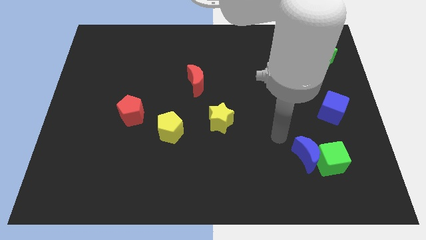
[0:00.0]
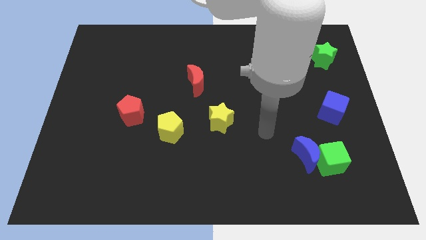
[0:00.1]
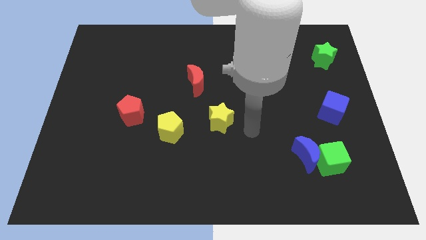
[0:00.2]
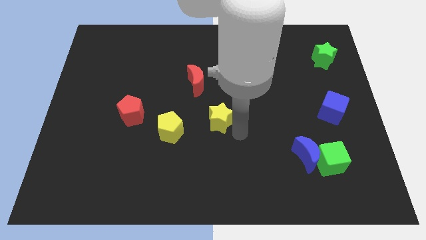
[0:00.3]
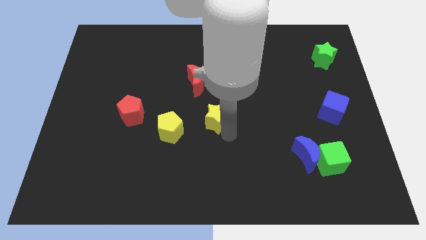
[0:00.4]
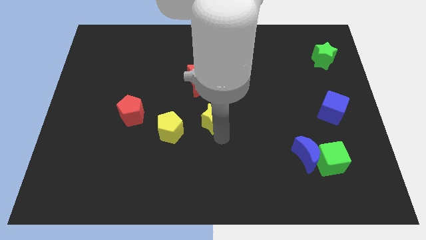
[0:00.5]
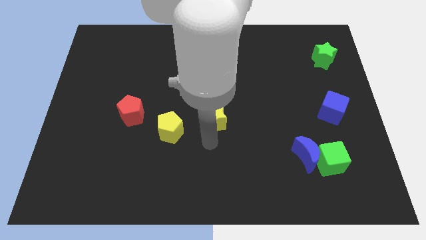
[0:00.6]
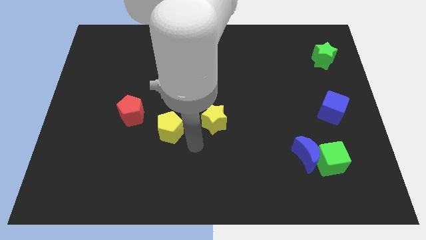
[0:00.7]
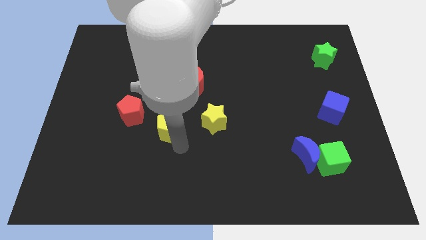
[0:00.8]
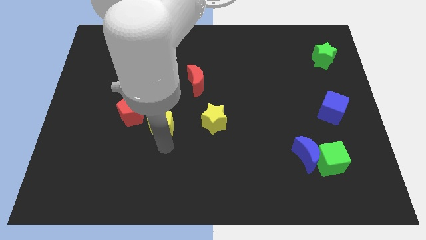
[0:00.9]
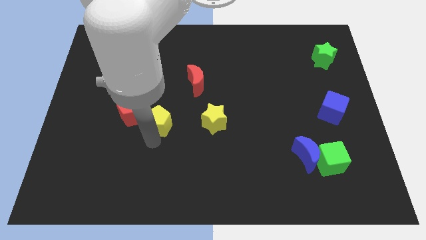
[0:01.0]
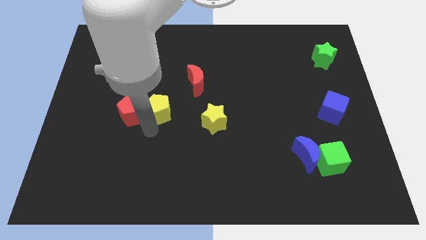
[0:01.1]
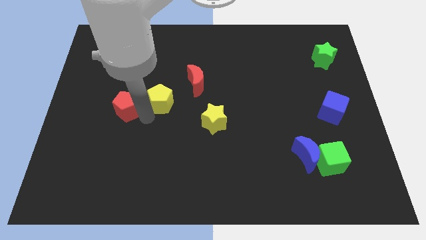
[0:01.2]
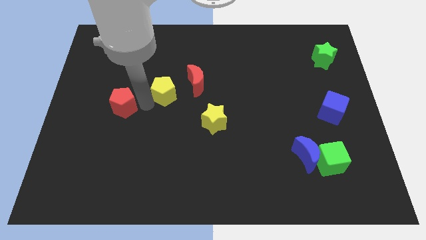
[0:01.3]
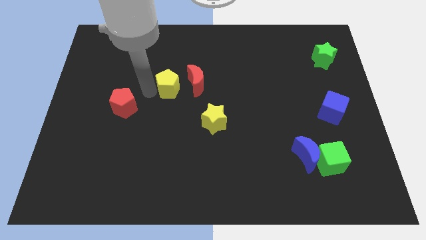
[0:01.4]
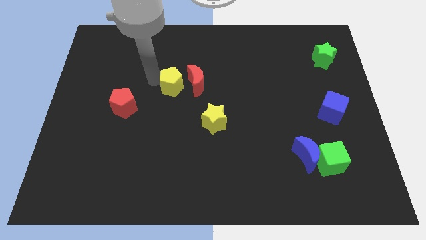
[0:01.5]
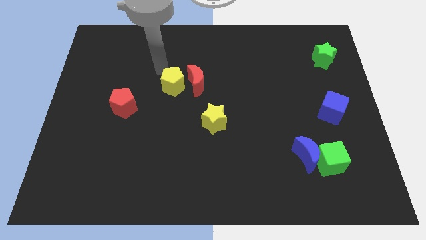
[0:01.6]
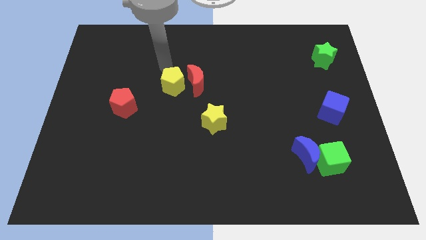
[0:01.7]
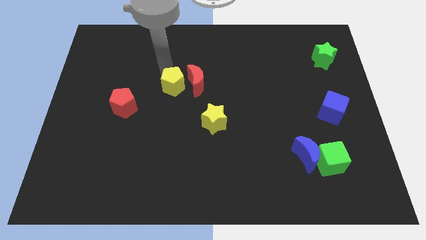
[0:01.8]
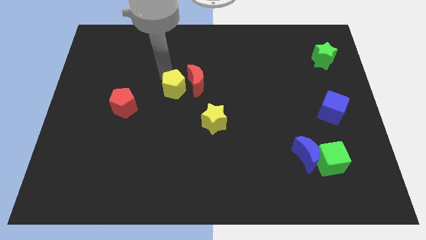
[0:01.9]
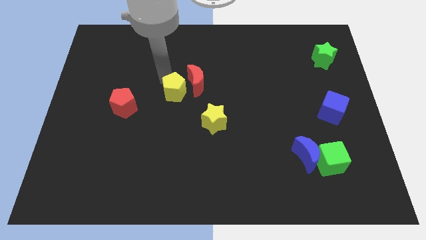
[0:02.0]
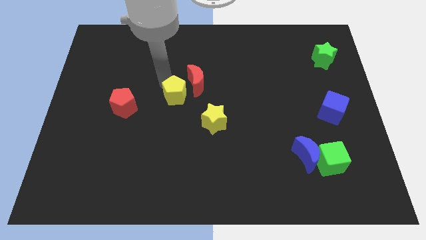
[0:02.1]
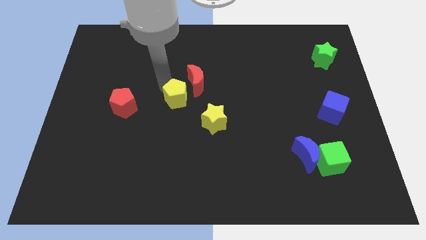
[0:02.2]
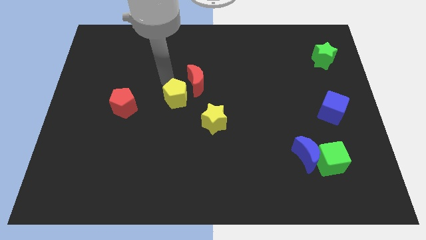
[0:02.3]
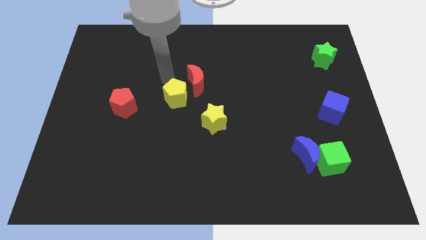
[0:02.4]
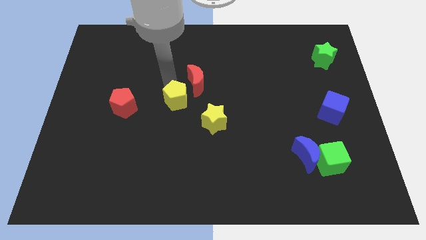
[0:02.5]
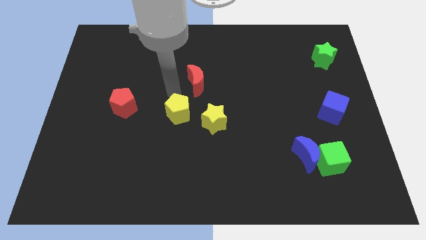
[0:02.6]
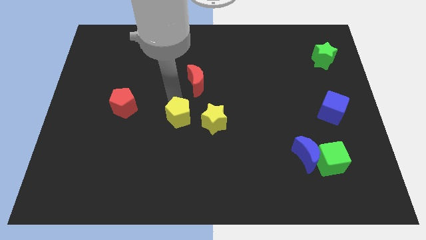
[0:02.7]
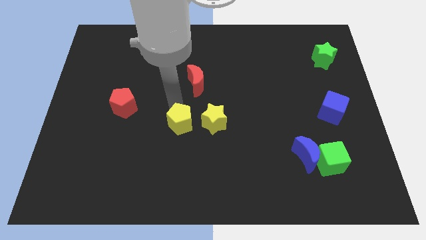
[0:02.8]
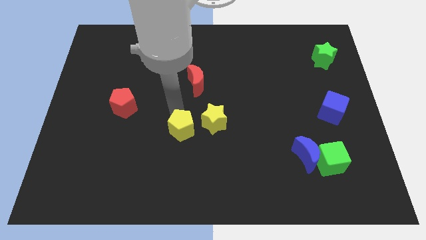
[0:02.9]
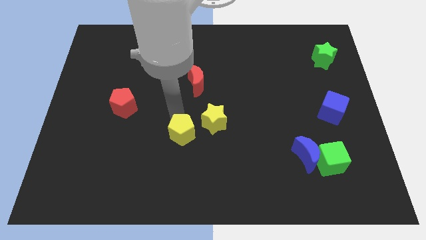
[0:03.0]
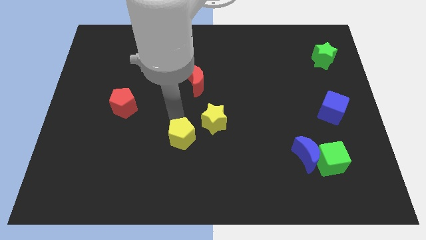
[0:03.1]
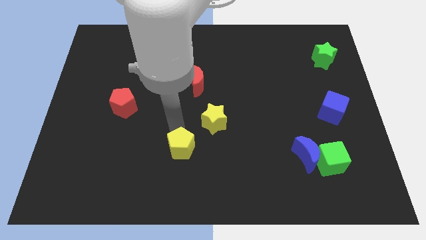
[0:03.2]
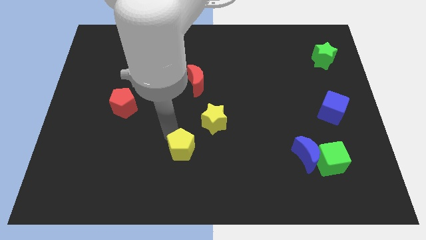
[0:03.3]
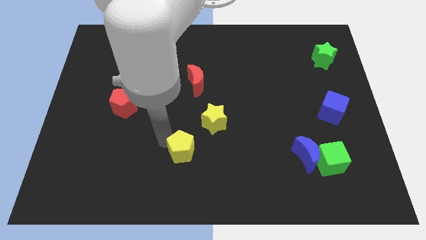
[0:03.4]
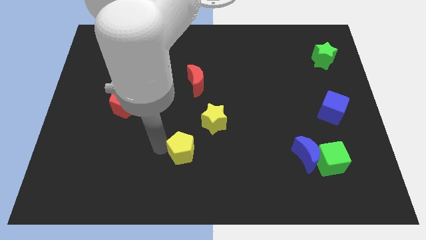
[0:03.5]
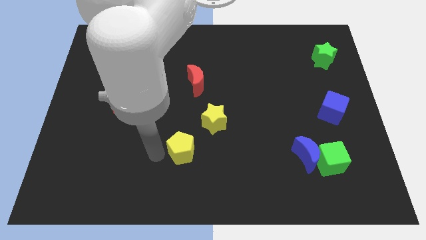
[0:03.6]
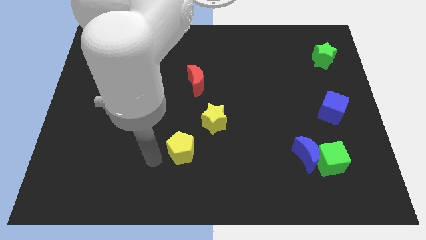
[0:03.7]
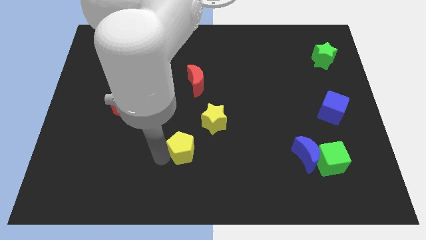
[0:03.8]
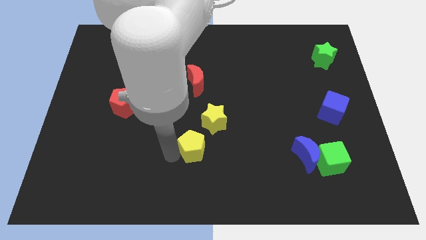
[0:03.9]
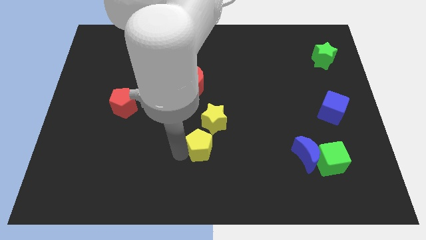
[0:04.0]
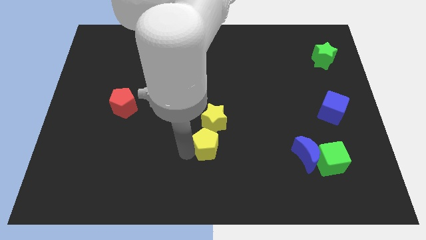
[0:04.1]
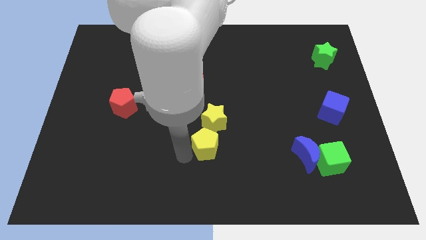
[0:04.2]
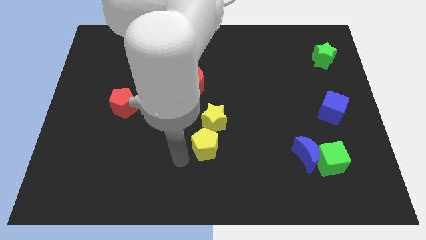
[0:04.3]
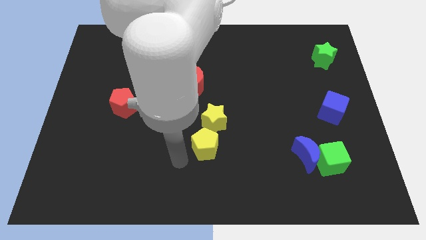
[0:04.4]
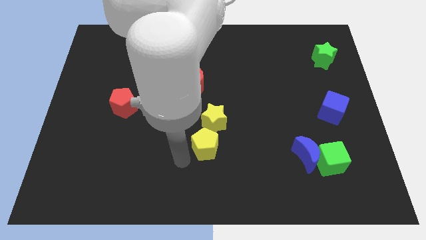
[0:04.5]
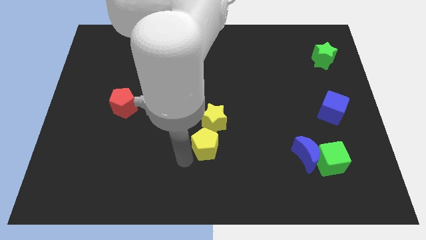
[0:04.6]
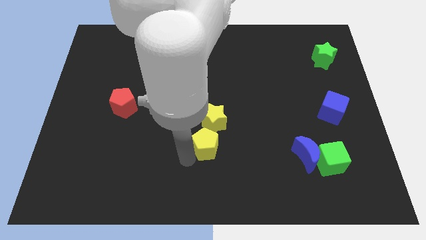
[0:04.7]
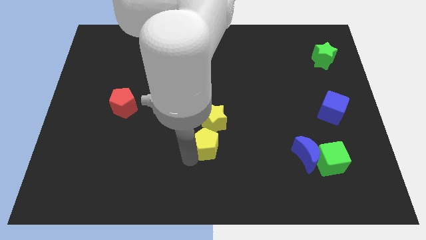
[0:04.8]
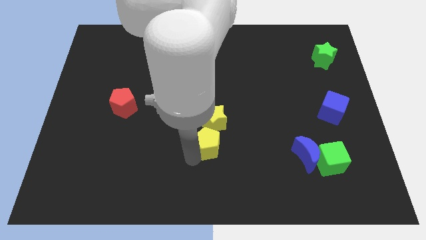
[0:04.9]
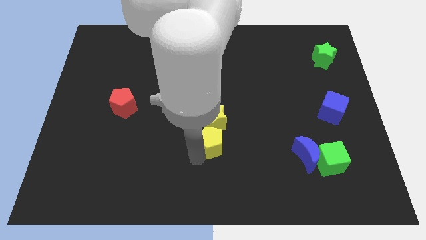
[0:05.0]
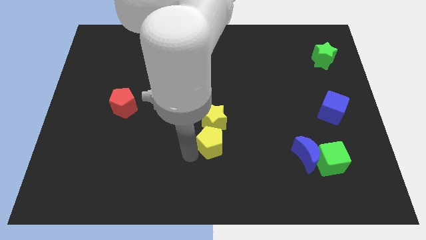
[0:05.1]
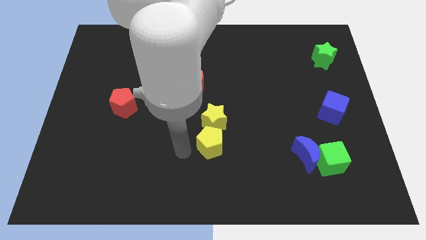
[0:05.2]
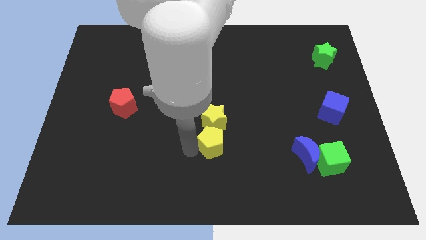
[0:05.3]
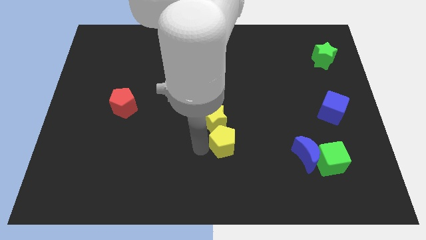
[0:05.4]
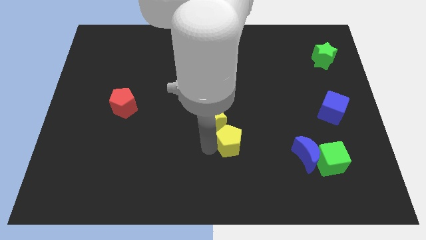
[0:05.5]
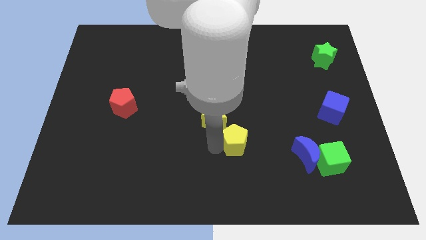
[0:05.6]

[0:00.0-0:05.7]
move the yellow pentagon just left of the blue moon

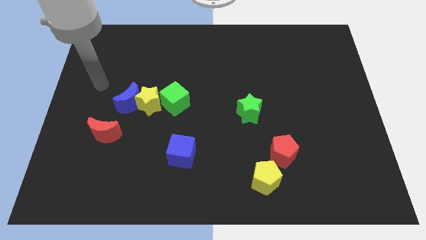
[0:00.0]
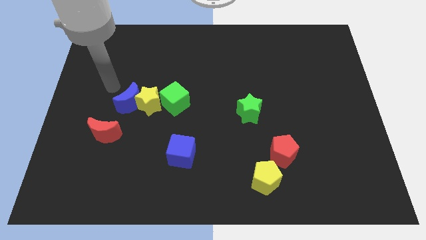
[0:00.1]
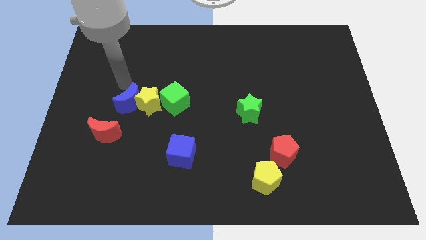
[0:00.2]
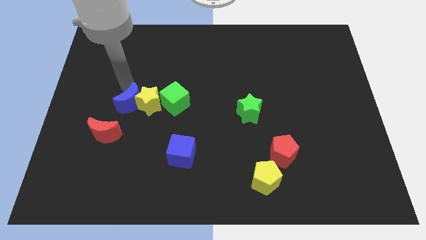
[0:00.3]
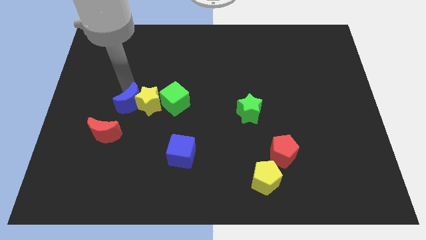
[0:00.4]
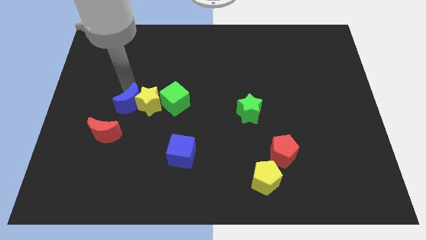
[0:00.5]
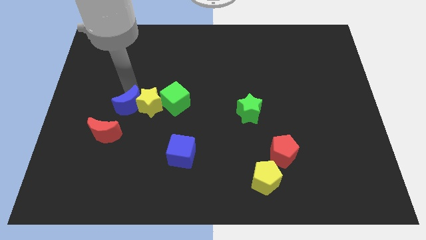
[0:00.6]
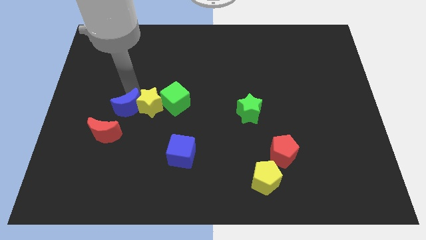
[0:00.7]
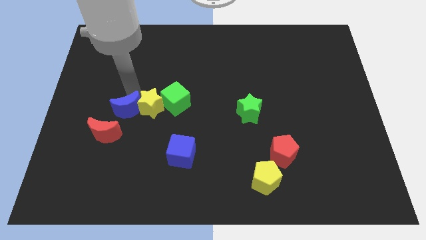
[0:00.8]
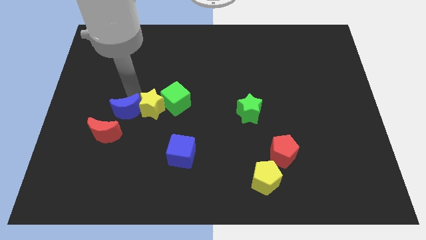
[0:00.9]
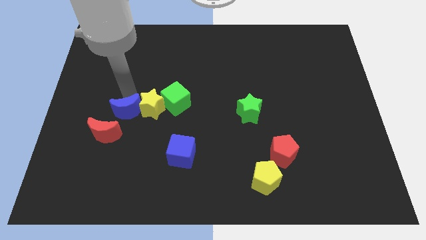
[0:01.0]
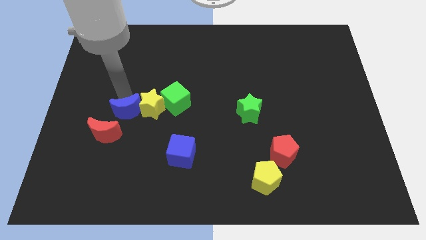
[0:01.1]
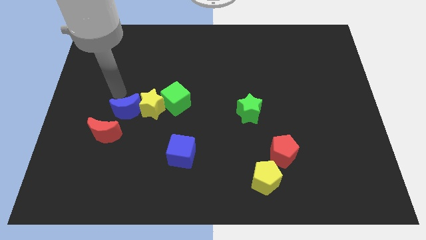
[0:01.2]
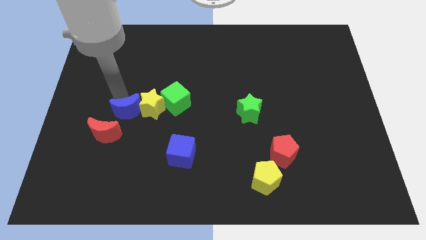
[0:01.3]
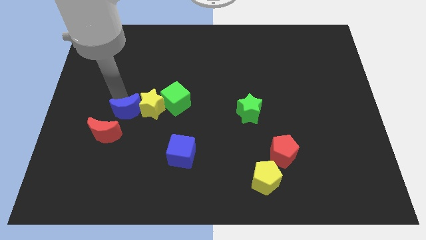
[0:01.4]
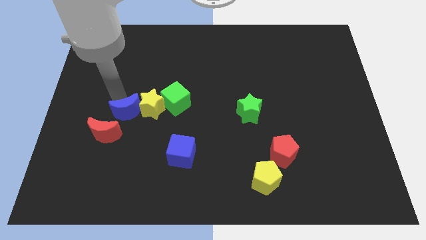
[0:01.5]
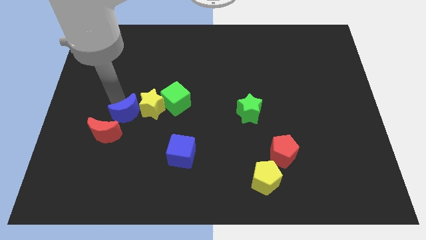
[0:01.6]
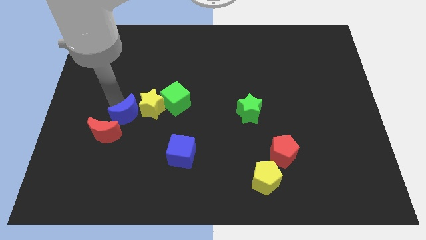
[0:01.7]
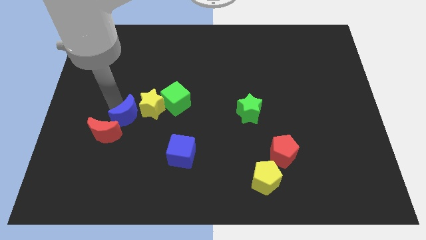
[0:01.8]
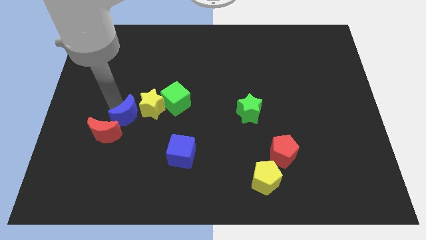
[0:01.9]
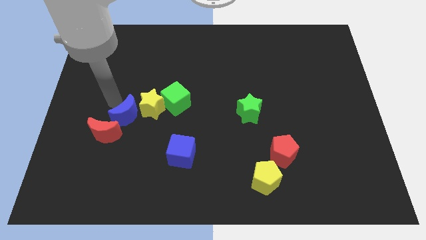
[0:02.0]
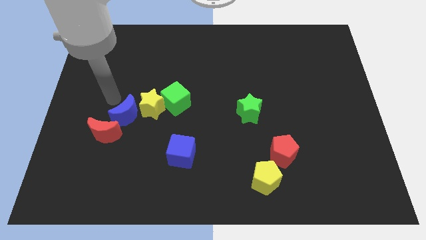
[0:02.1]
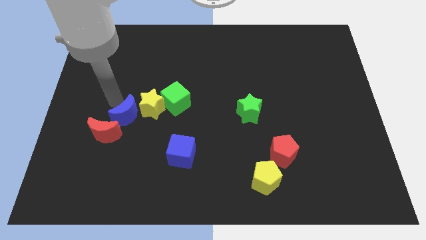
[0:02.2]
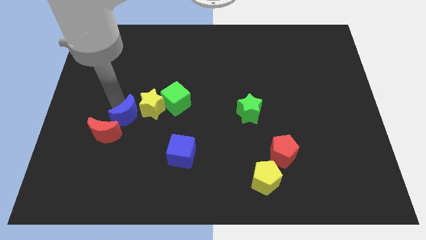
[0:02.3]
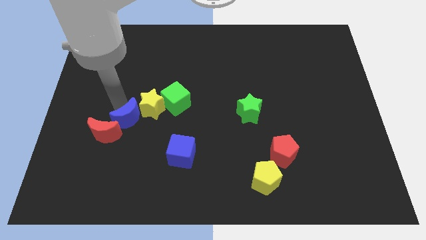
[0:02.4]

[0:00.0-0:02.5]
put the blue moon to the right of the red moon
